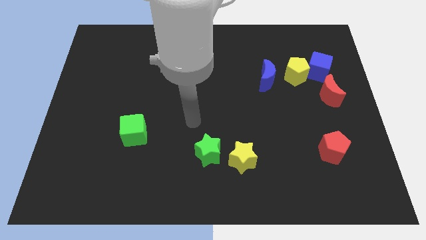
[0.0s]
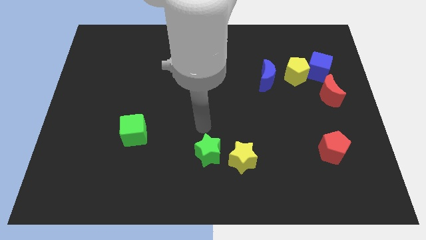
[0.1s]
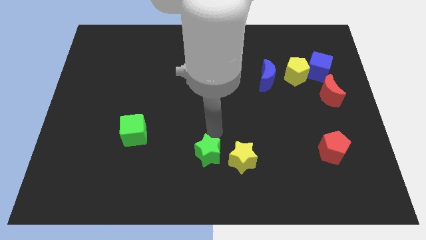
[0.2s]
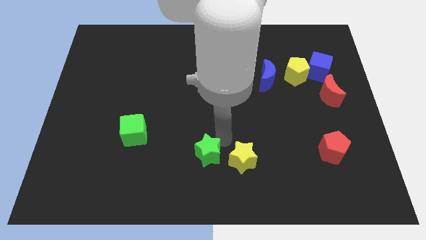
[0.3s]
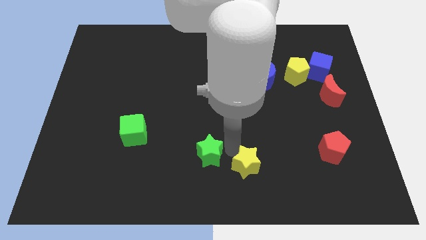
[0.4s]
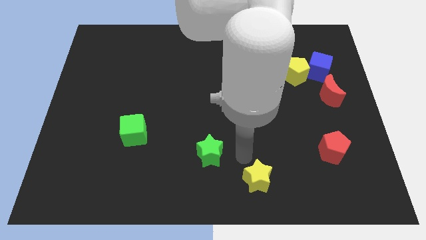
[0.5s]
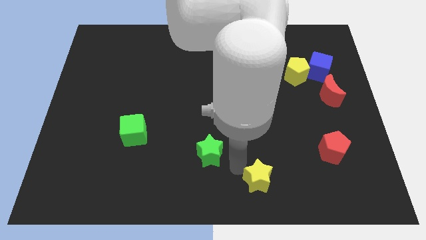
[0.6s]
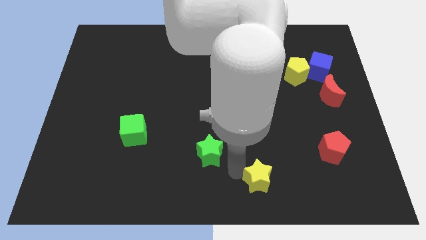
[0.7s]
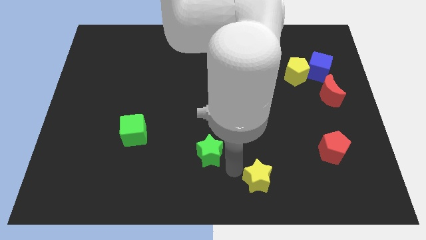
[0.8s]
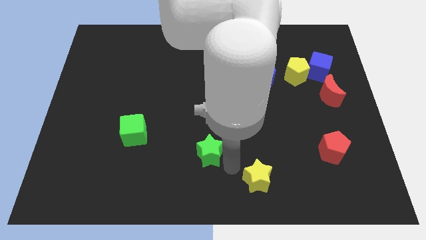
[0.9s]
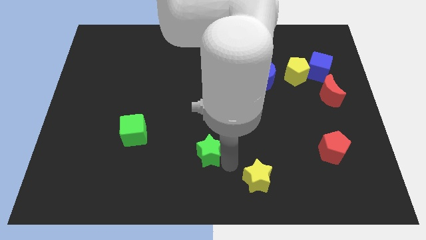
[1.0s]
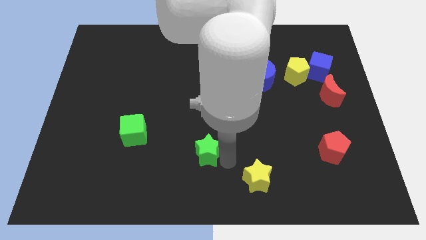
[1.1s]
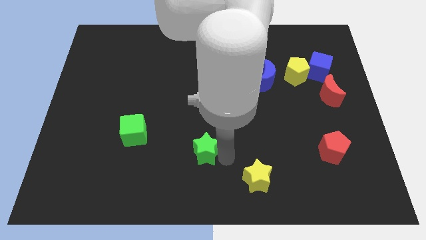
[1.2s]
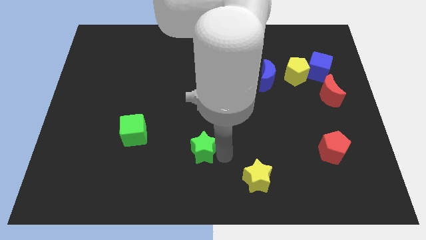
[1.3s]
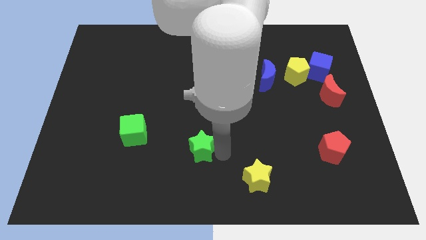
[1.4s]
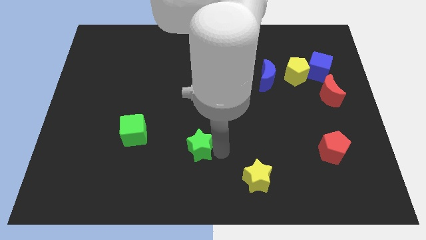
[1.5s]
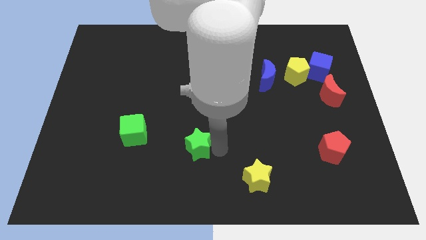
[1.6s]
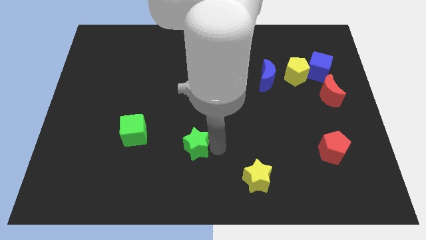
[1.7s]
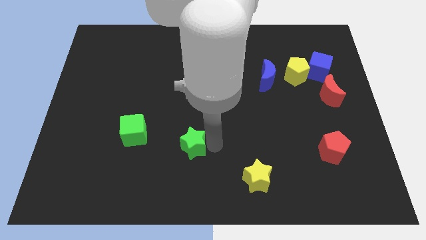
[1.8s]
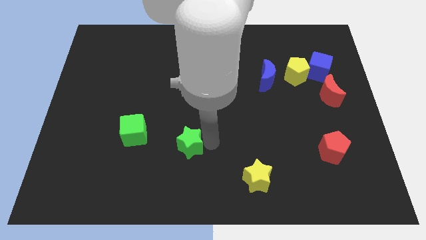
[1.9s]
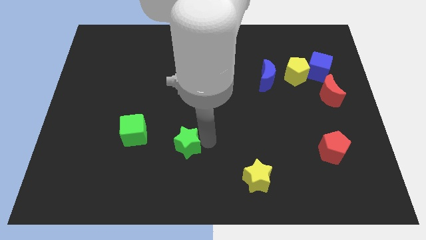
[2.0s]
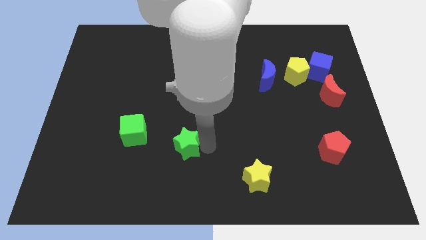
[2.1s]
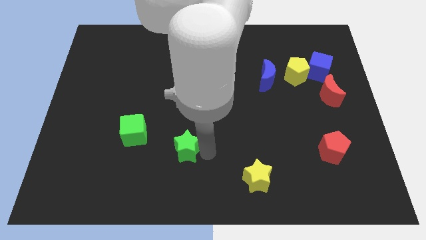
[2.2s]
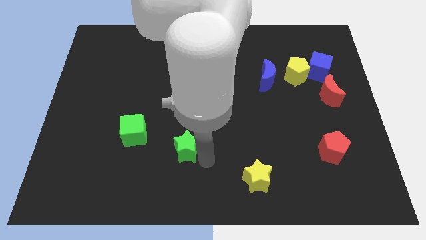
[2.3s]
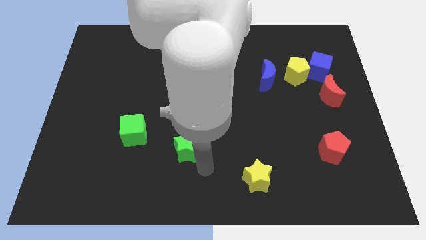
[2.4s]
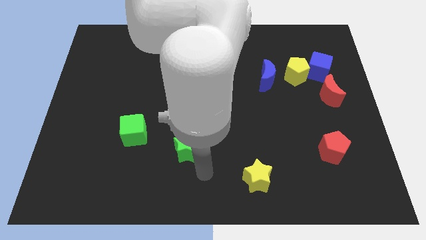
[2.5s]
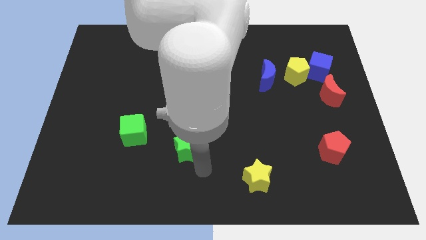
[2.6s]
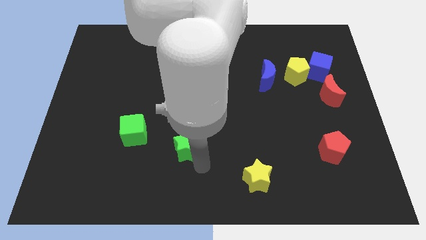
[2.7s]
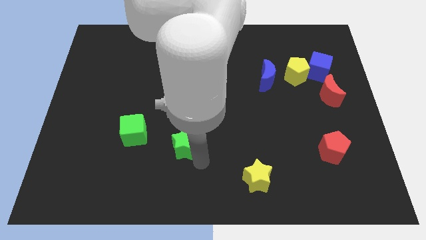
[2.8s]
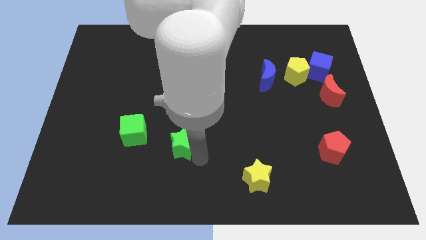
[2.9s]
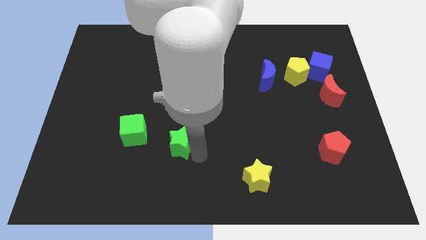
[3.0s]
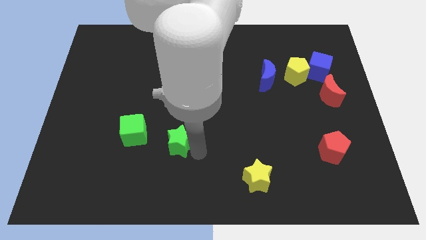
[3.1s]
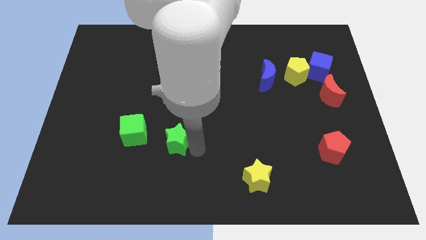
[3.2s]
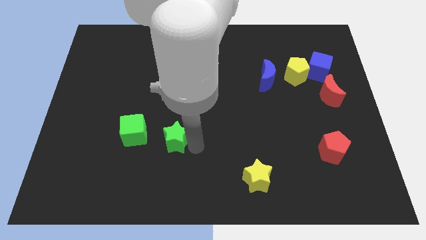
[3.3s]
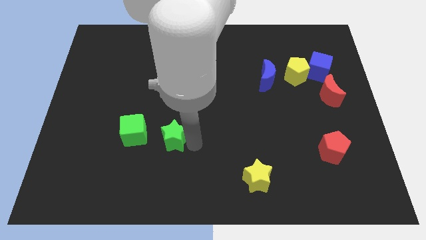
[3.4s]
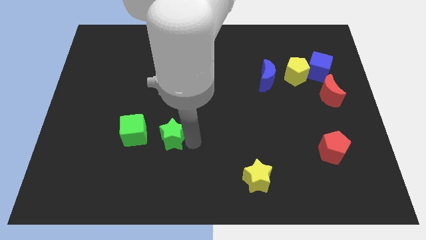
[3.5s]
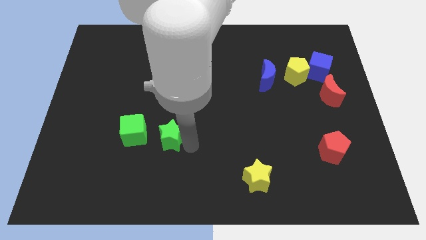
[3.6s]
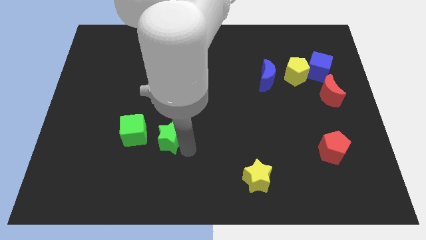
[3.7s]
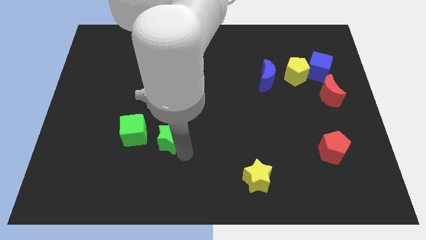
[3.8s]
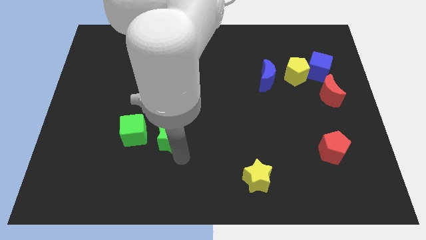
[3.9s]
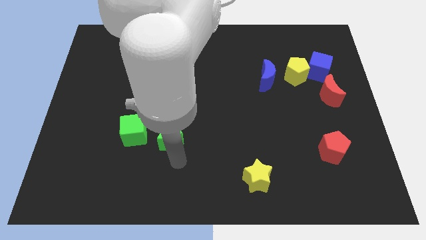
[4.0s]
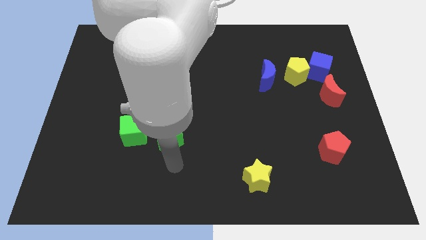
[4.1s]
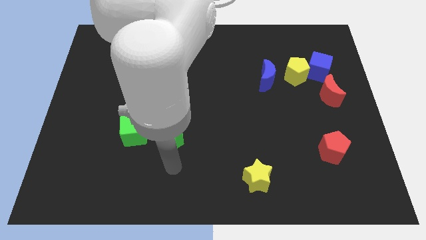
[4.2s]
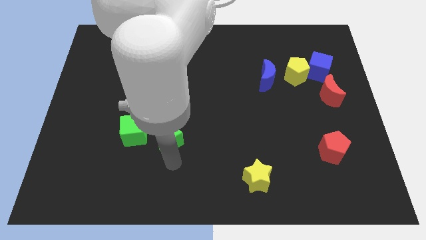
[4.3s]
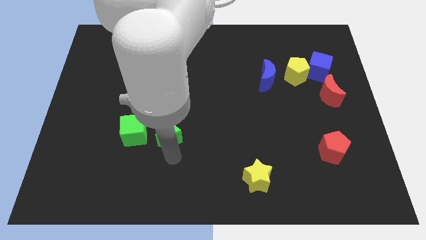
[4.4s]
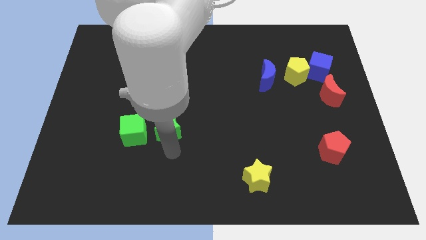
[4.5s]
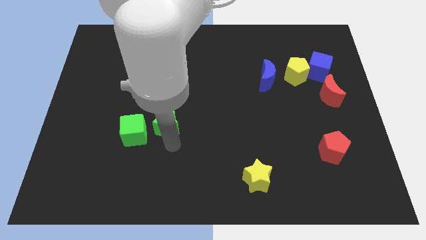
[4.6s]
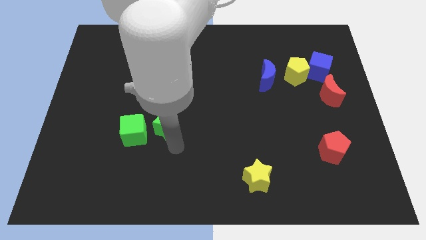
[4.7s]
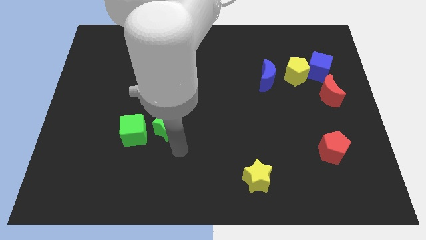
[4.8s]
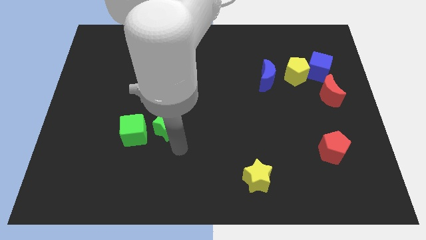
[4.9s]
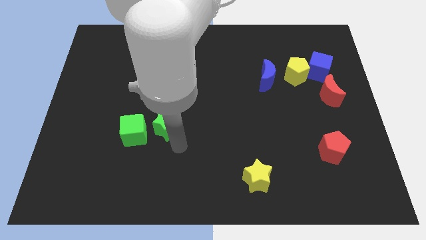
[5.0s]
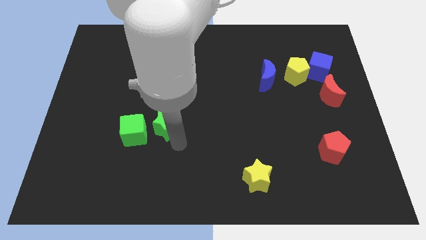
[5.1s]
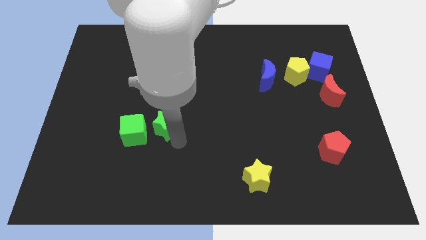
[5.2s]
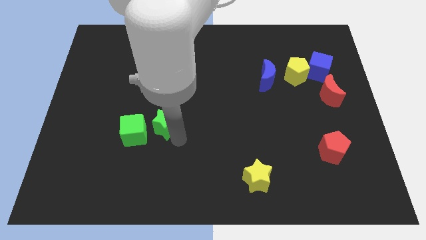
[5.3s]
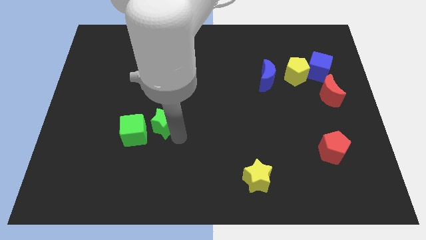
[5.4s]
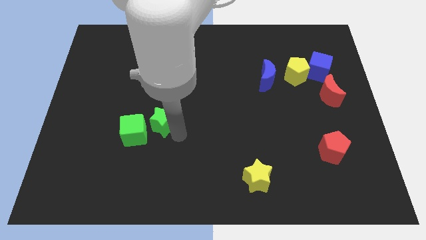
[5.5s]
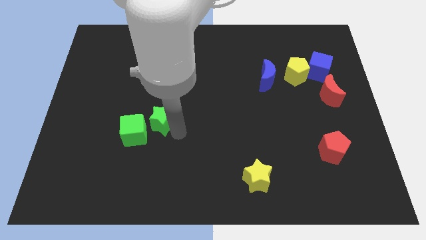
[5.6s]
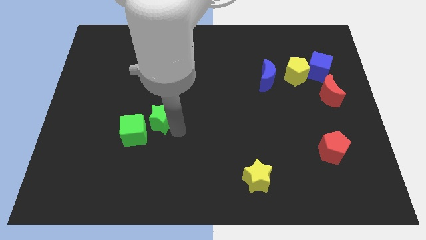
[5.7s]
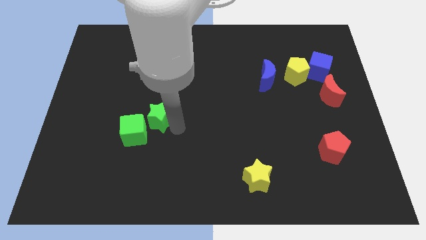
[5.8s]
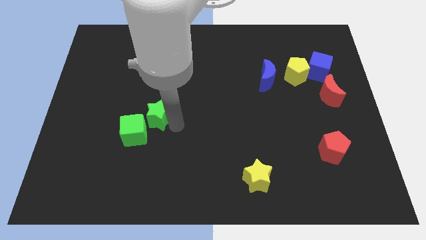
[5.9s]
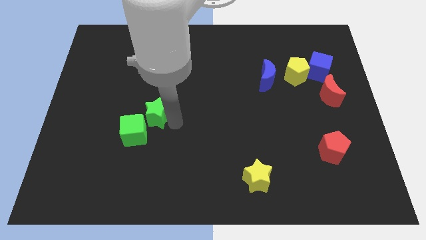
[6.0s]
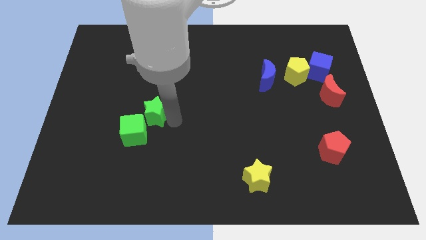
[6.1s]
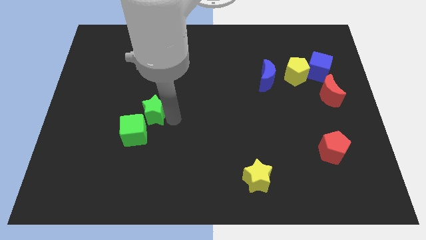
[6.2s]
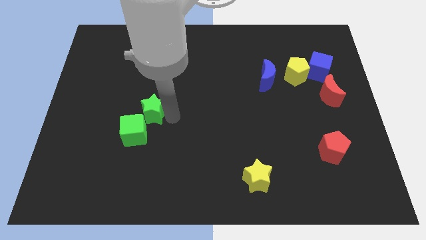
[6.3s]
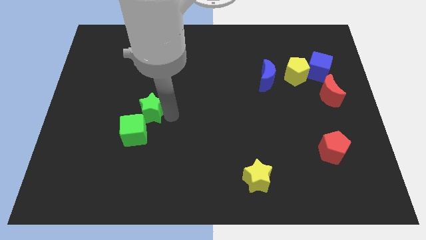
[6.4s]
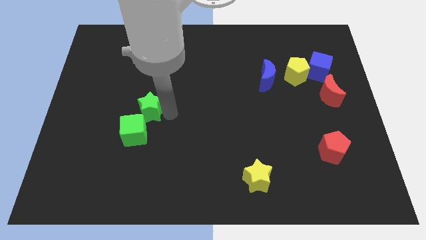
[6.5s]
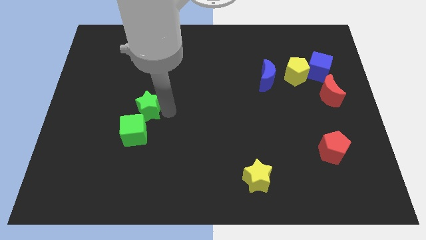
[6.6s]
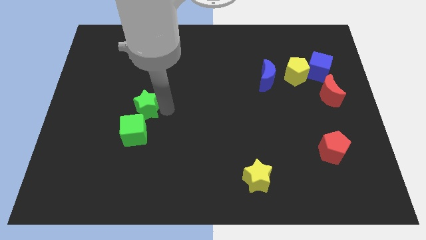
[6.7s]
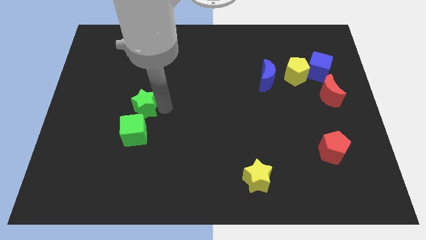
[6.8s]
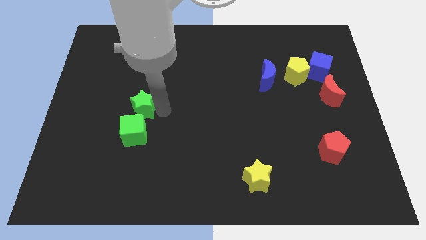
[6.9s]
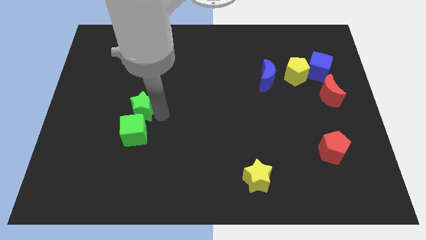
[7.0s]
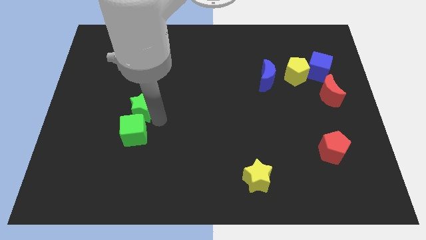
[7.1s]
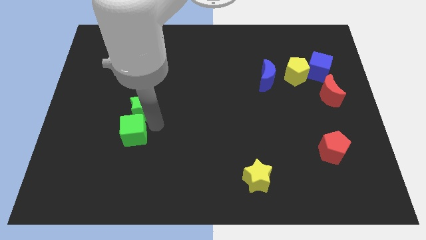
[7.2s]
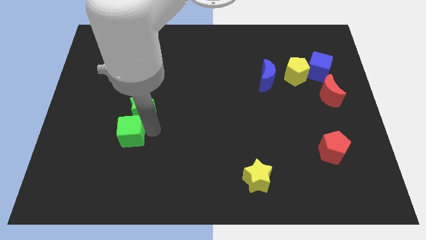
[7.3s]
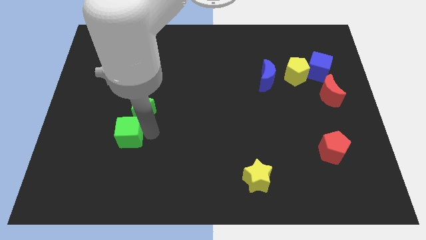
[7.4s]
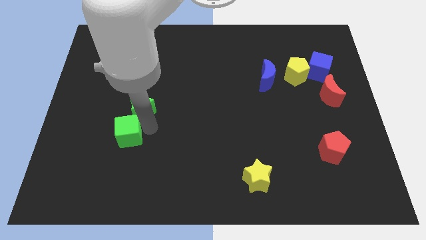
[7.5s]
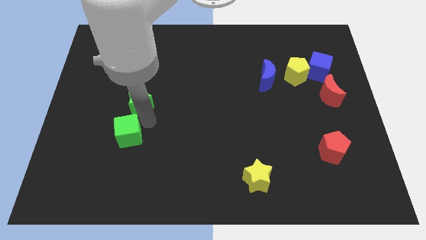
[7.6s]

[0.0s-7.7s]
move the green star diagonally up and to the left
